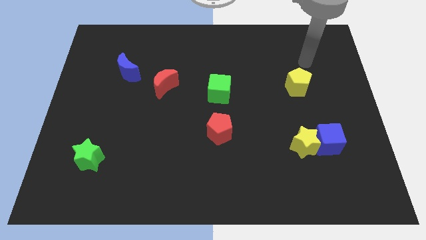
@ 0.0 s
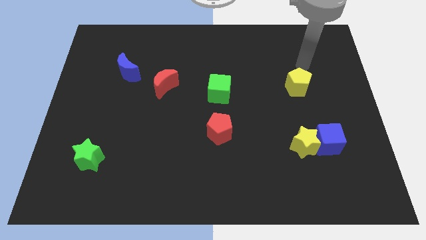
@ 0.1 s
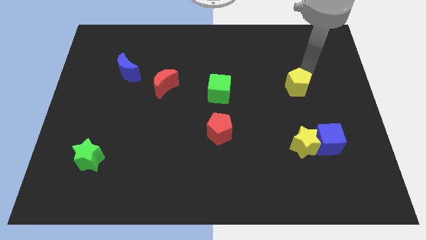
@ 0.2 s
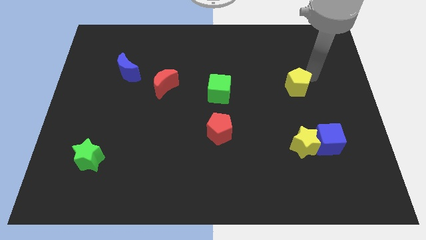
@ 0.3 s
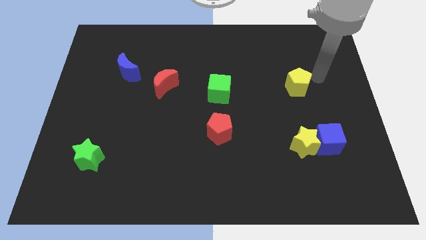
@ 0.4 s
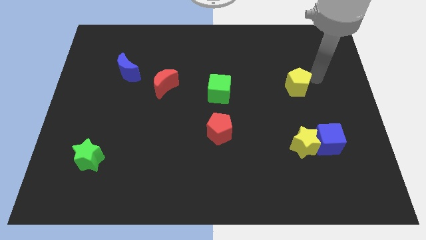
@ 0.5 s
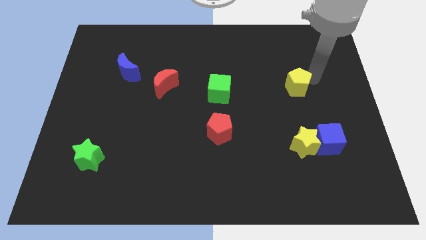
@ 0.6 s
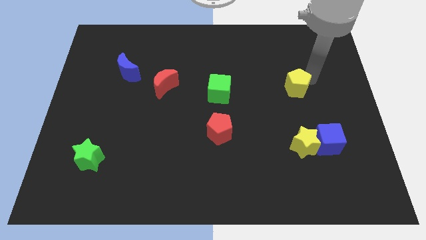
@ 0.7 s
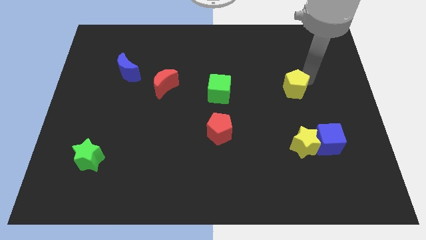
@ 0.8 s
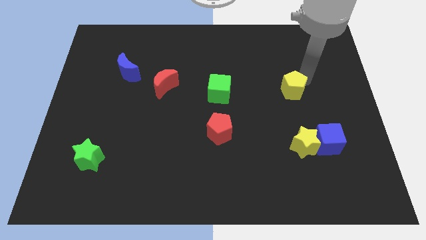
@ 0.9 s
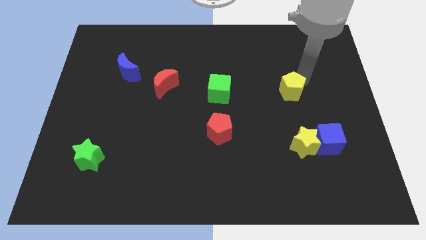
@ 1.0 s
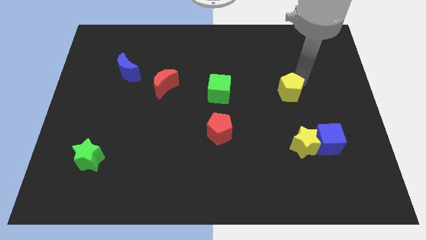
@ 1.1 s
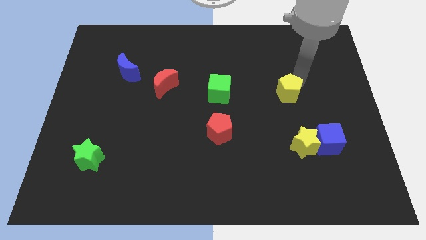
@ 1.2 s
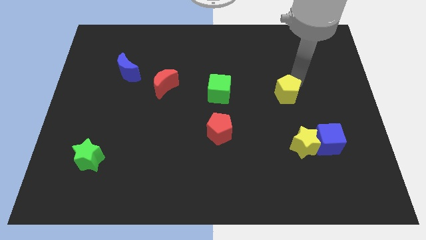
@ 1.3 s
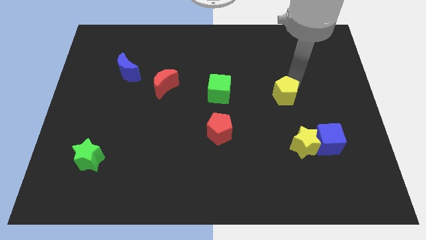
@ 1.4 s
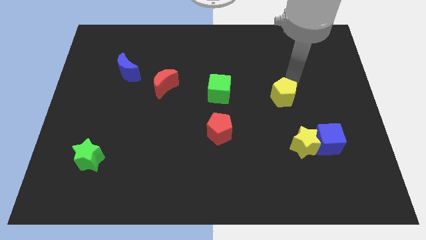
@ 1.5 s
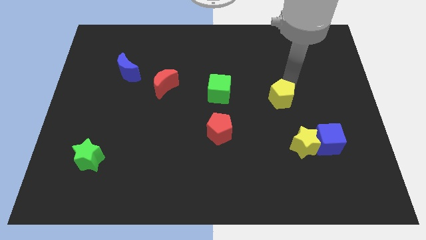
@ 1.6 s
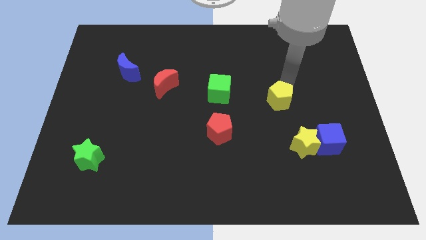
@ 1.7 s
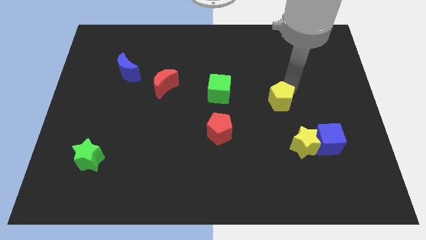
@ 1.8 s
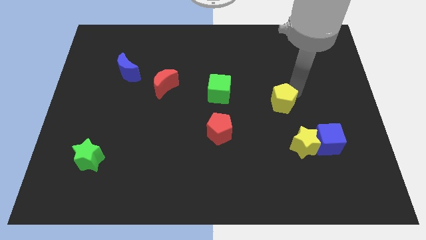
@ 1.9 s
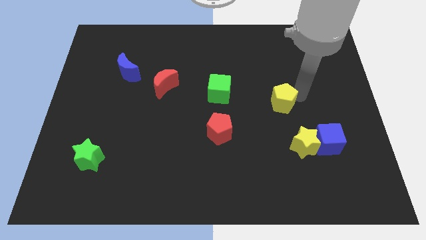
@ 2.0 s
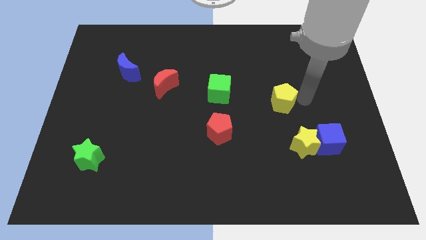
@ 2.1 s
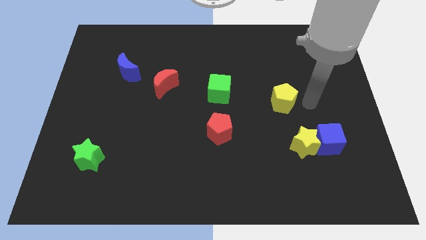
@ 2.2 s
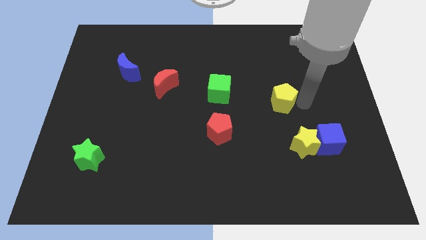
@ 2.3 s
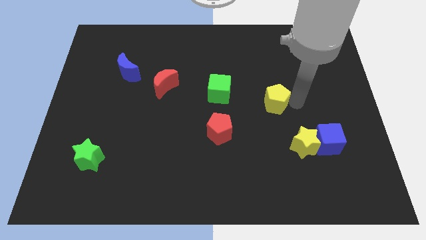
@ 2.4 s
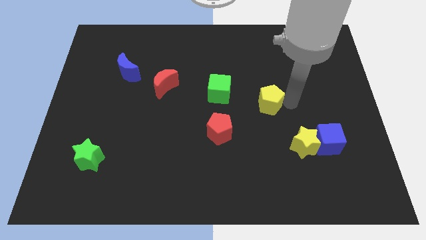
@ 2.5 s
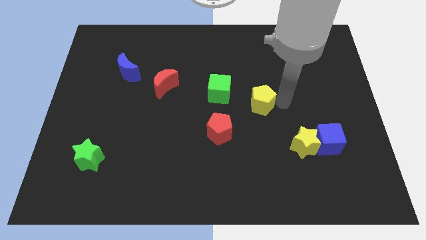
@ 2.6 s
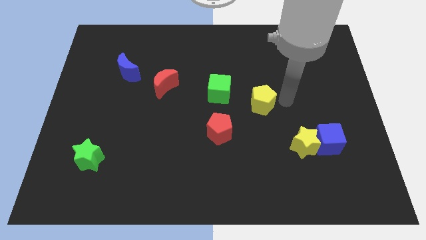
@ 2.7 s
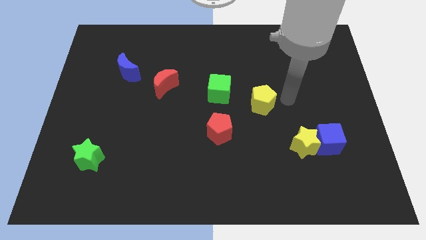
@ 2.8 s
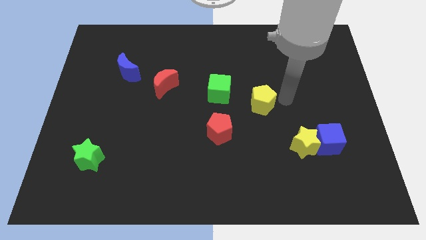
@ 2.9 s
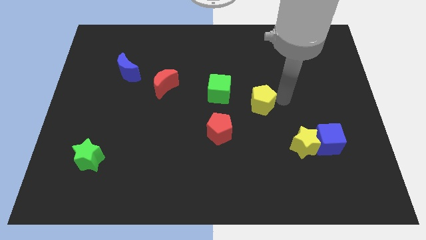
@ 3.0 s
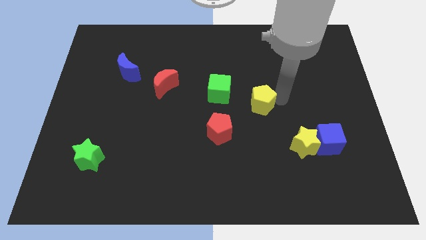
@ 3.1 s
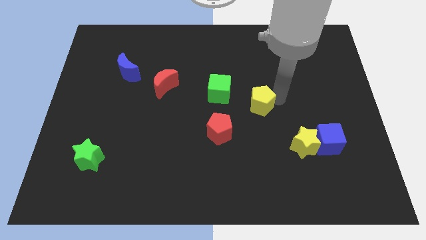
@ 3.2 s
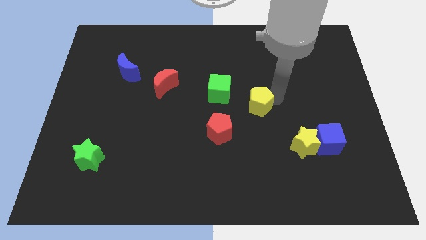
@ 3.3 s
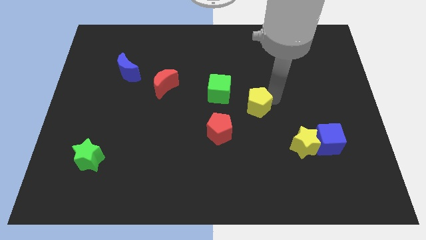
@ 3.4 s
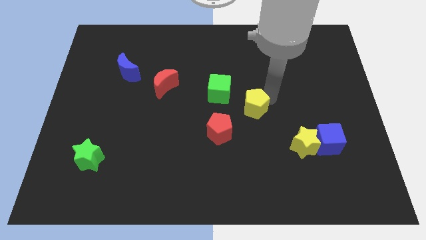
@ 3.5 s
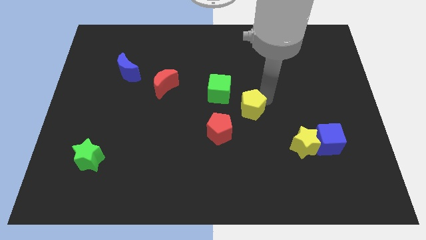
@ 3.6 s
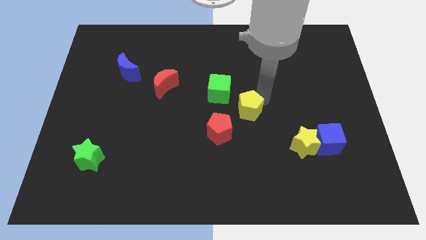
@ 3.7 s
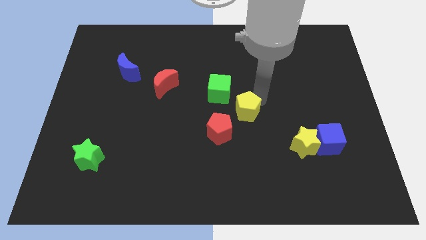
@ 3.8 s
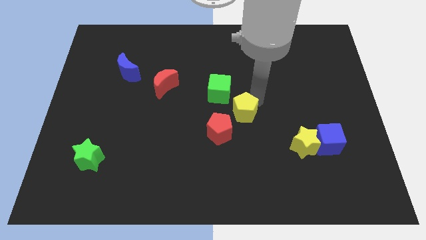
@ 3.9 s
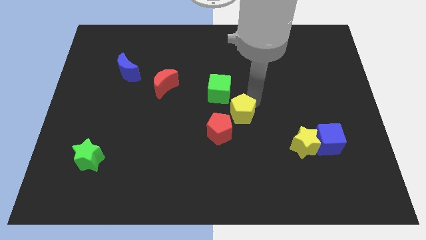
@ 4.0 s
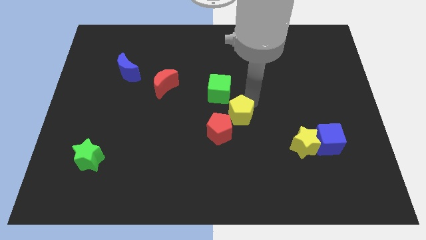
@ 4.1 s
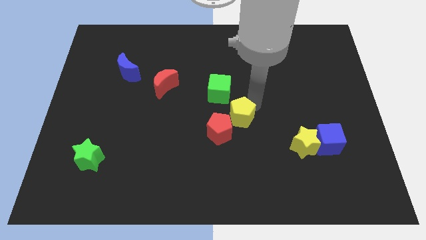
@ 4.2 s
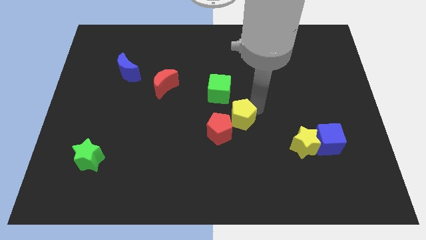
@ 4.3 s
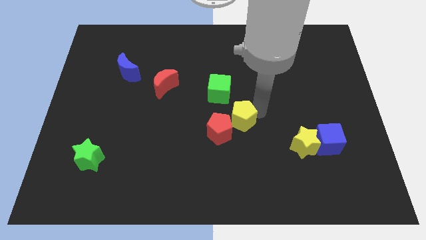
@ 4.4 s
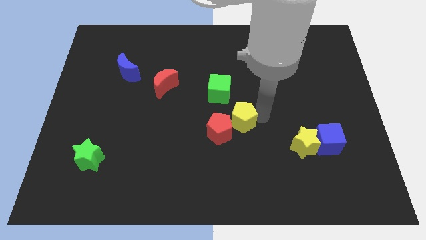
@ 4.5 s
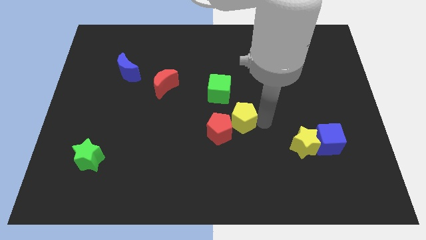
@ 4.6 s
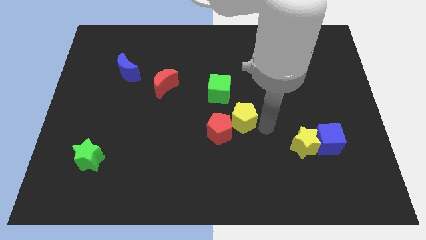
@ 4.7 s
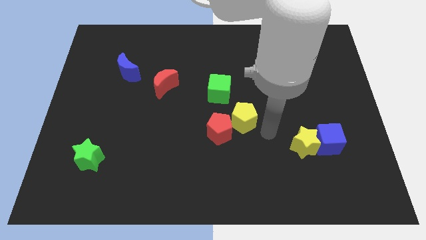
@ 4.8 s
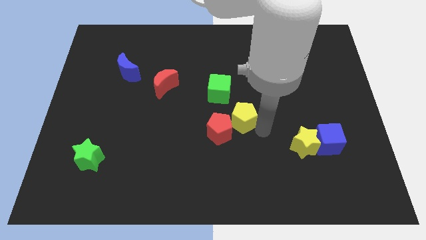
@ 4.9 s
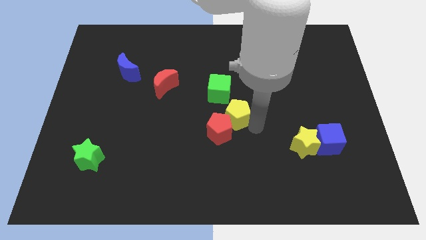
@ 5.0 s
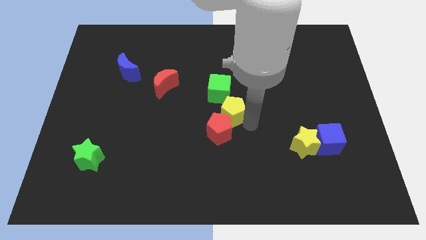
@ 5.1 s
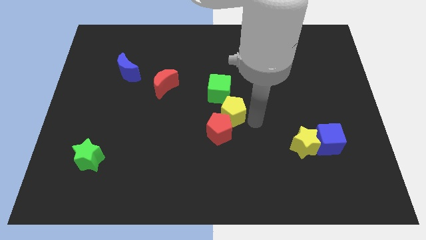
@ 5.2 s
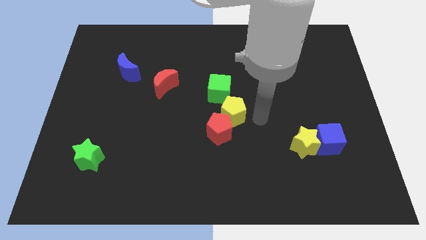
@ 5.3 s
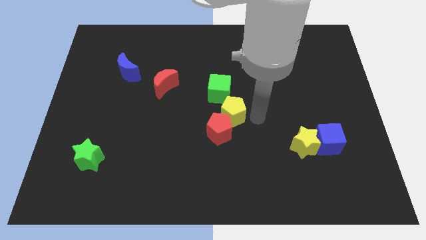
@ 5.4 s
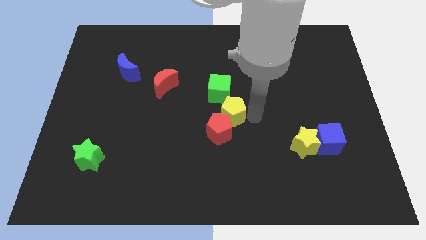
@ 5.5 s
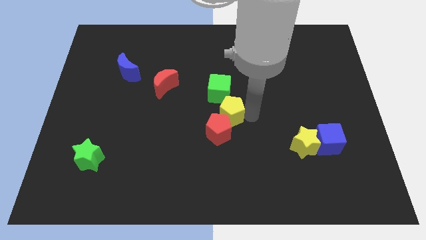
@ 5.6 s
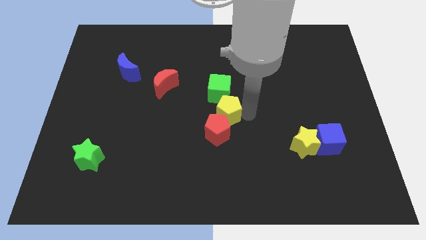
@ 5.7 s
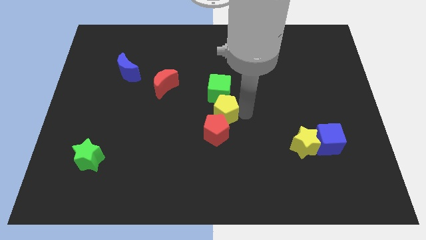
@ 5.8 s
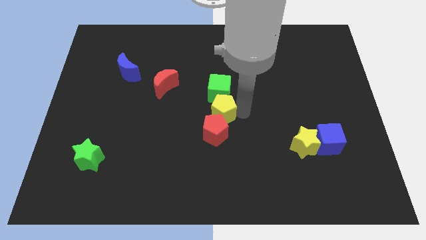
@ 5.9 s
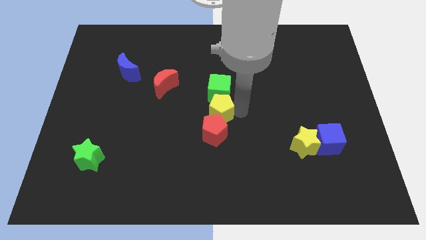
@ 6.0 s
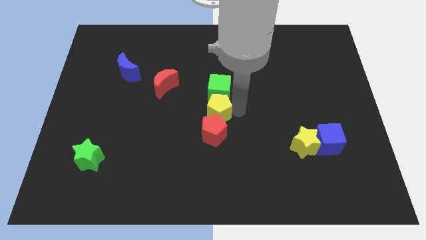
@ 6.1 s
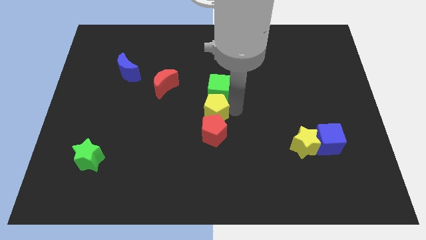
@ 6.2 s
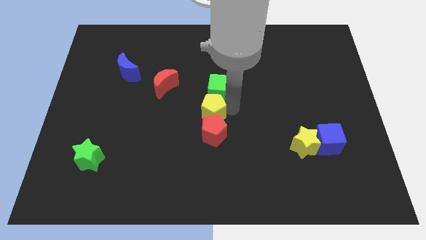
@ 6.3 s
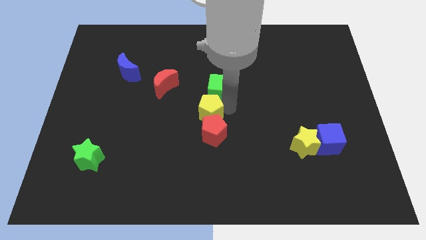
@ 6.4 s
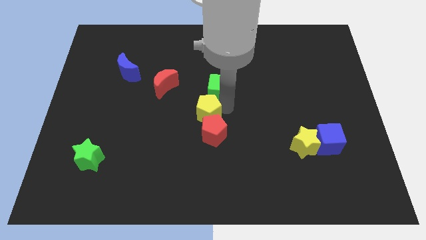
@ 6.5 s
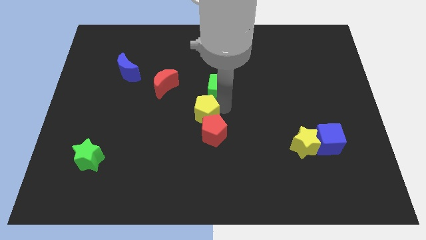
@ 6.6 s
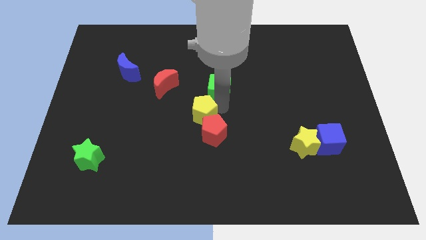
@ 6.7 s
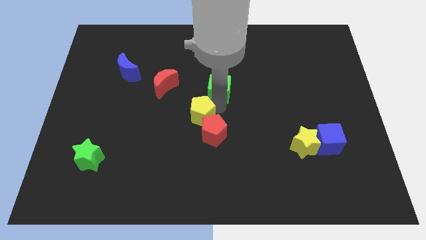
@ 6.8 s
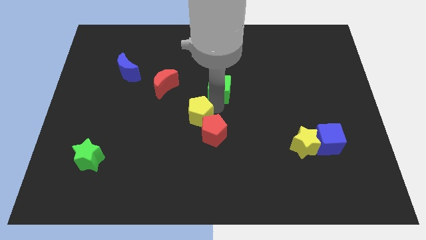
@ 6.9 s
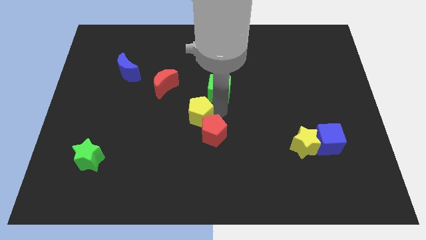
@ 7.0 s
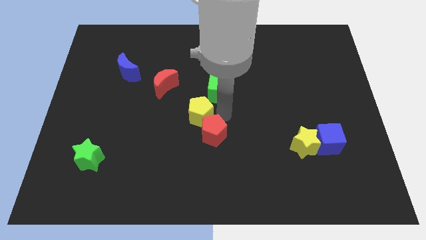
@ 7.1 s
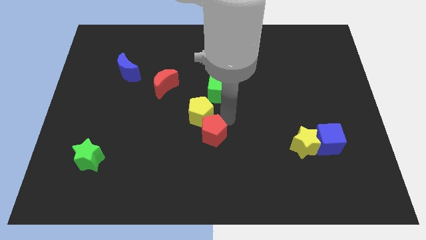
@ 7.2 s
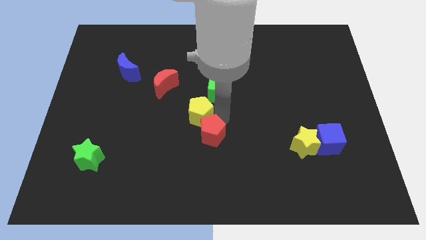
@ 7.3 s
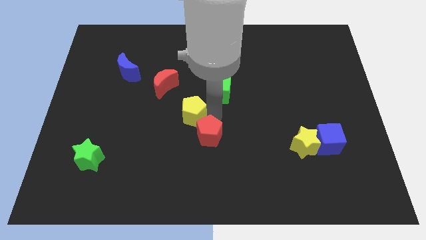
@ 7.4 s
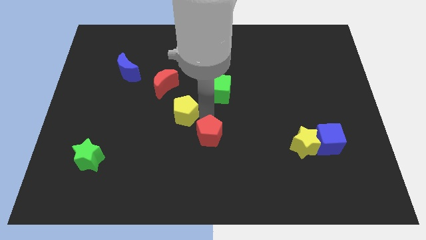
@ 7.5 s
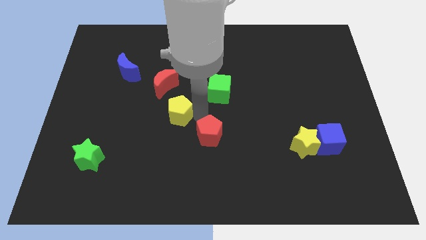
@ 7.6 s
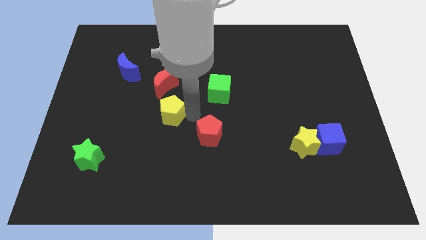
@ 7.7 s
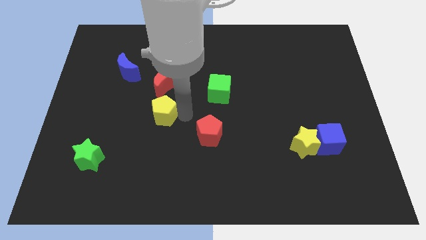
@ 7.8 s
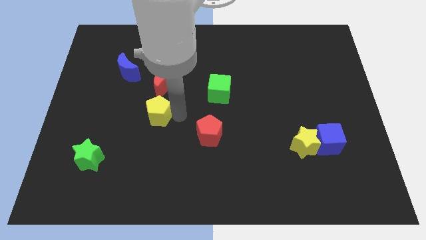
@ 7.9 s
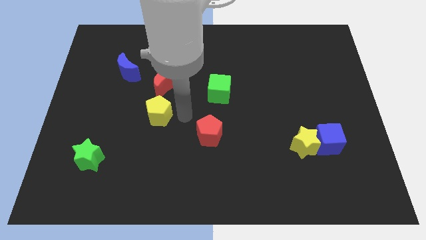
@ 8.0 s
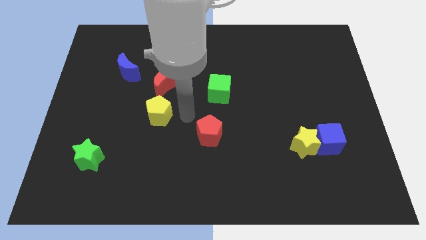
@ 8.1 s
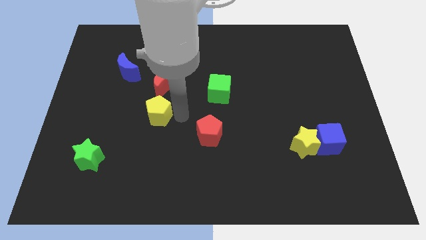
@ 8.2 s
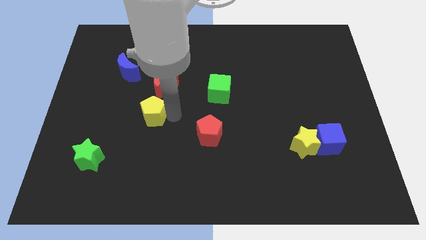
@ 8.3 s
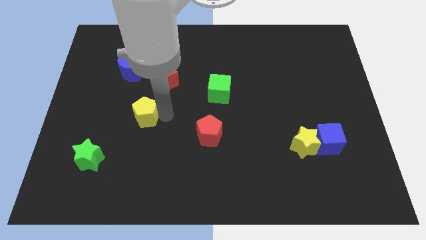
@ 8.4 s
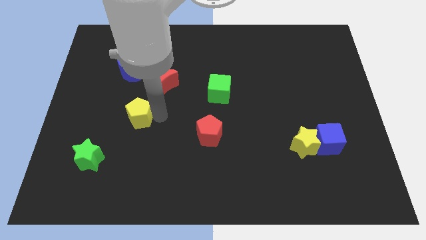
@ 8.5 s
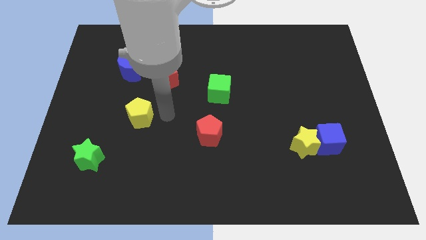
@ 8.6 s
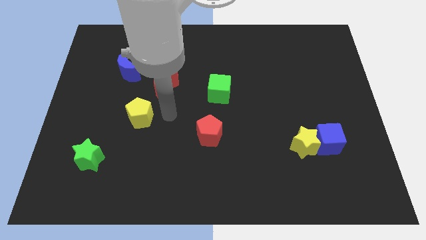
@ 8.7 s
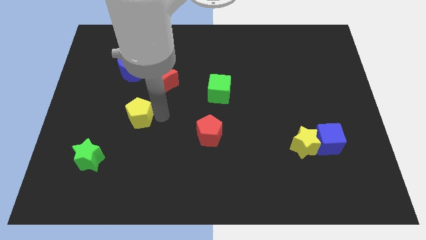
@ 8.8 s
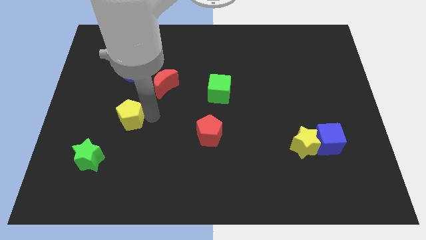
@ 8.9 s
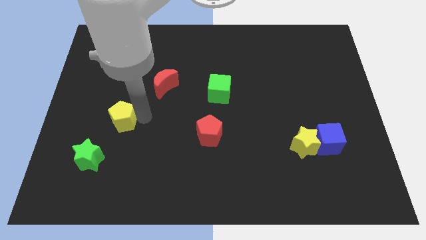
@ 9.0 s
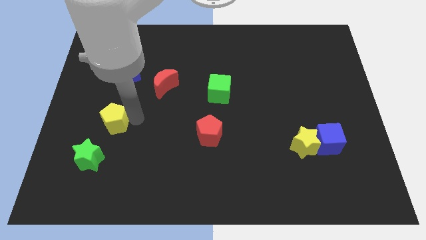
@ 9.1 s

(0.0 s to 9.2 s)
put the yellow pentagon above the green star
